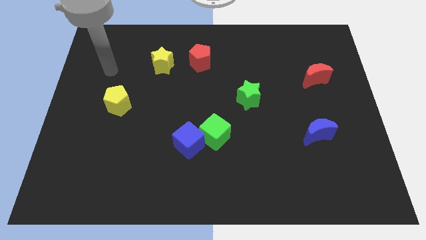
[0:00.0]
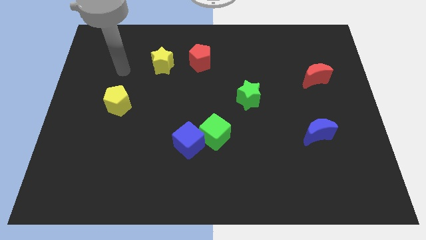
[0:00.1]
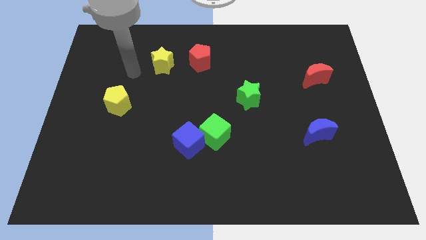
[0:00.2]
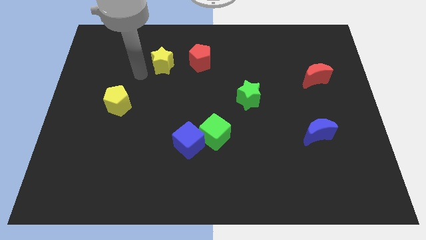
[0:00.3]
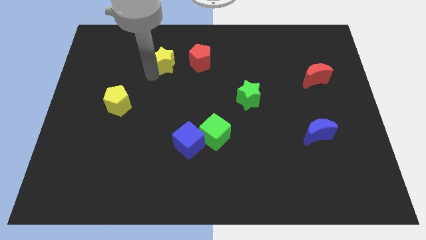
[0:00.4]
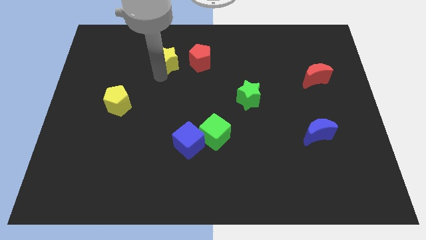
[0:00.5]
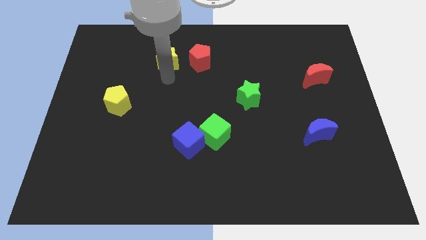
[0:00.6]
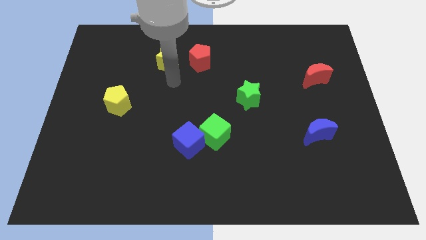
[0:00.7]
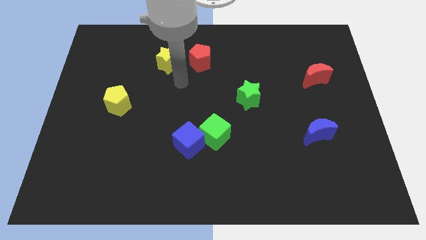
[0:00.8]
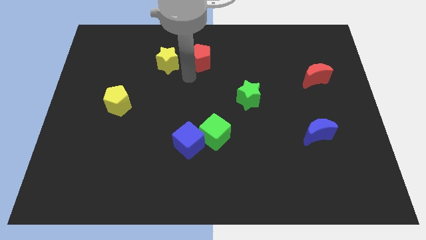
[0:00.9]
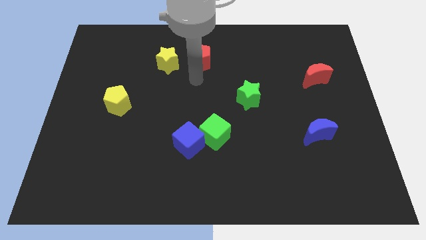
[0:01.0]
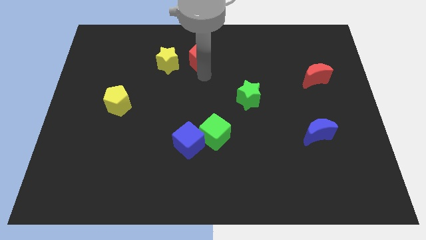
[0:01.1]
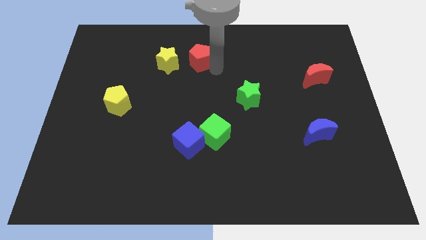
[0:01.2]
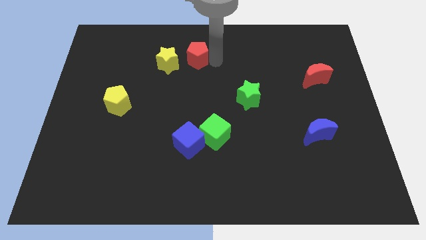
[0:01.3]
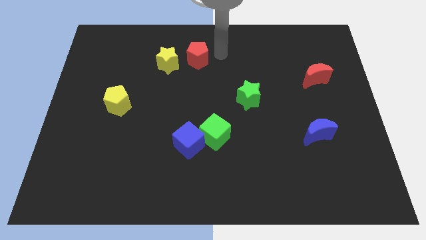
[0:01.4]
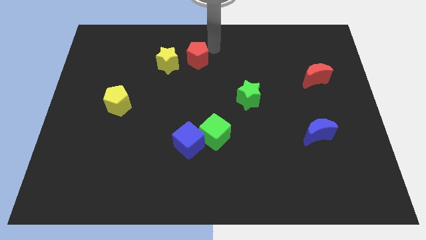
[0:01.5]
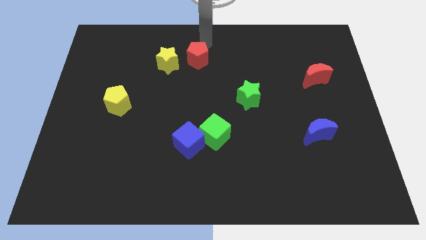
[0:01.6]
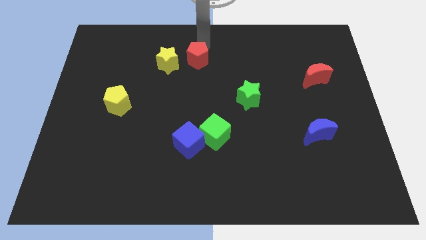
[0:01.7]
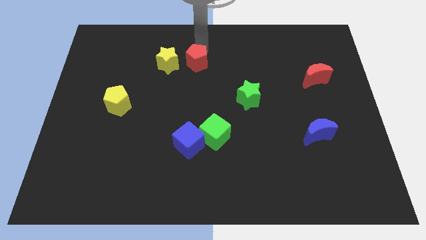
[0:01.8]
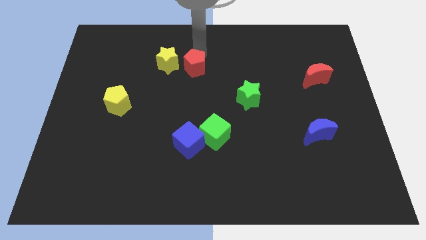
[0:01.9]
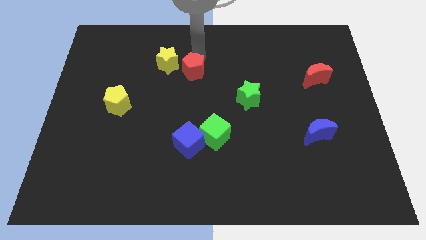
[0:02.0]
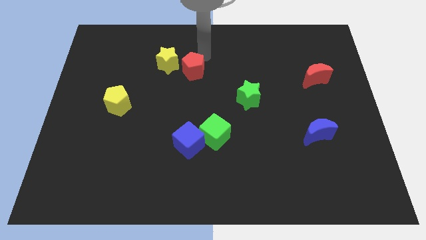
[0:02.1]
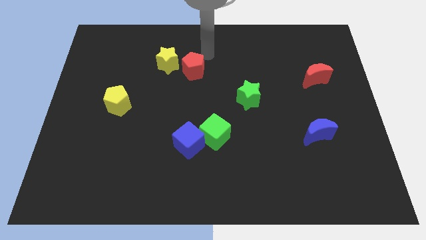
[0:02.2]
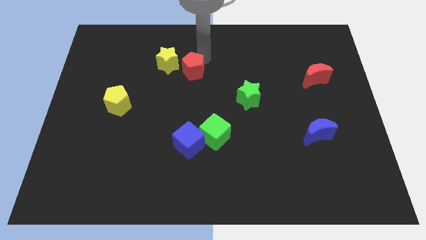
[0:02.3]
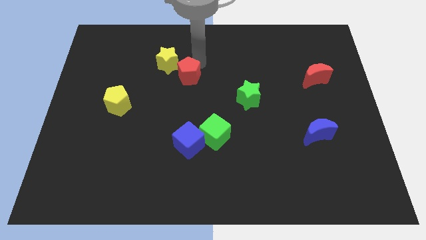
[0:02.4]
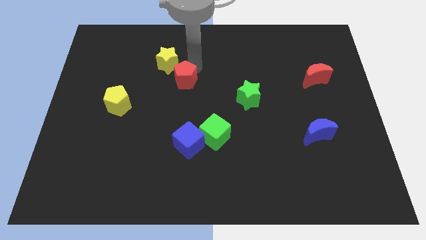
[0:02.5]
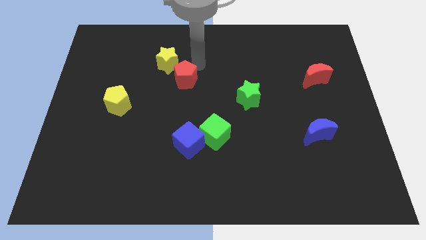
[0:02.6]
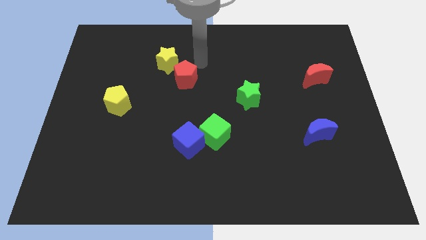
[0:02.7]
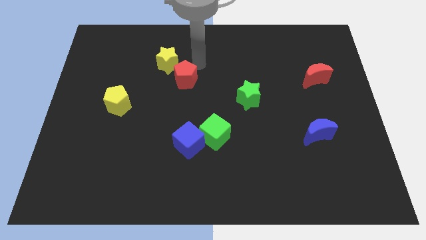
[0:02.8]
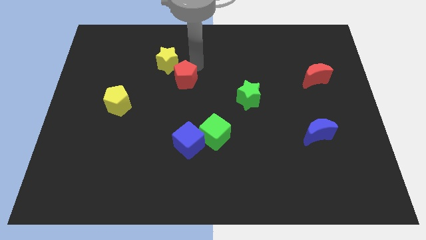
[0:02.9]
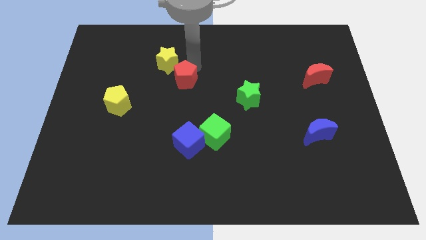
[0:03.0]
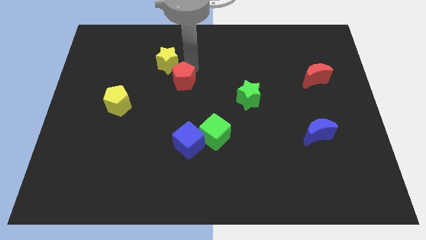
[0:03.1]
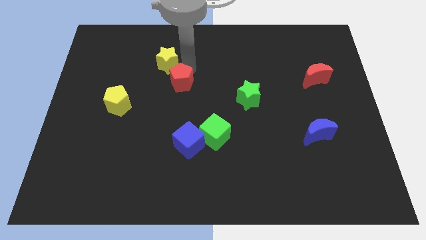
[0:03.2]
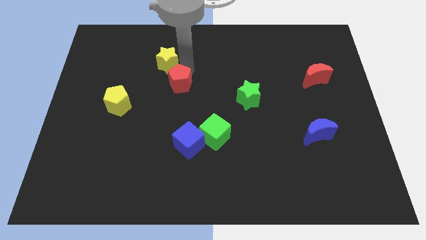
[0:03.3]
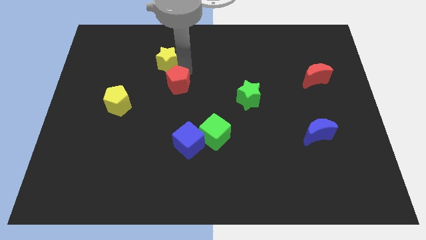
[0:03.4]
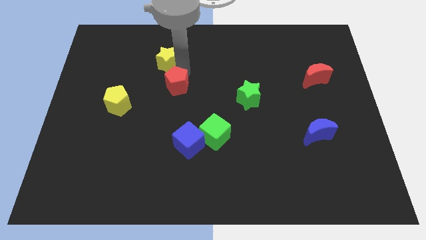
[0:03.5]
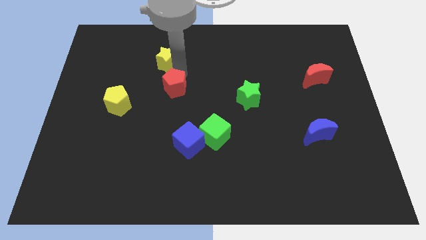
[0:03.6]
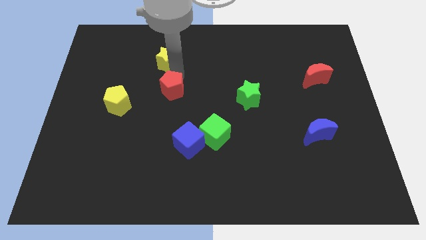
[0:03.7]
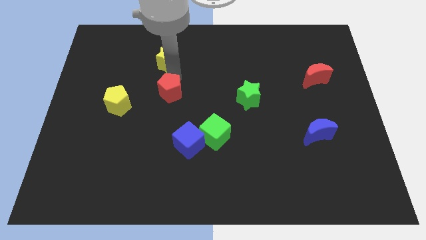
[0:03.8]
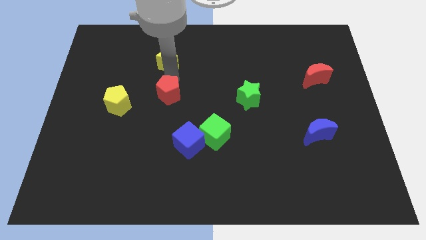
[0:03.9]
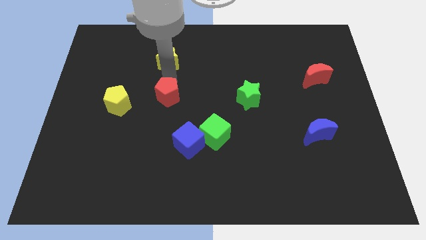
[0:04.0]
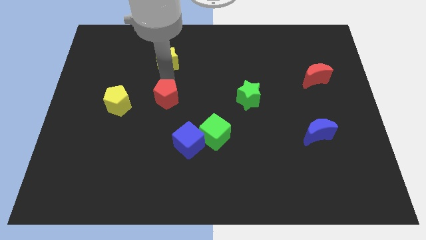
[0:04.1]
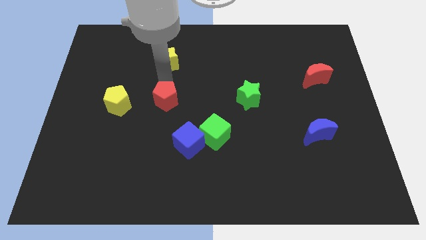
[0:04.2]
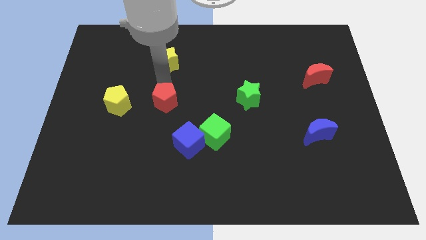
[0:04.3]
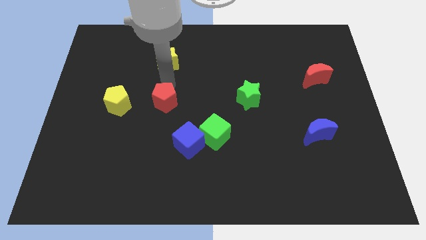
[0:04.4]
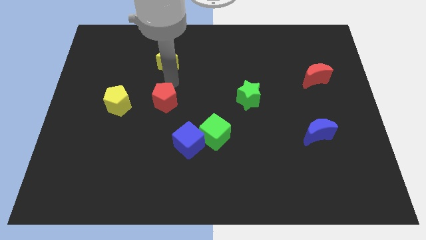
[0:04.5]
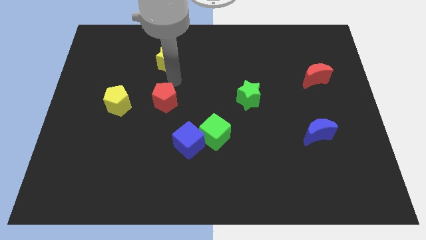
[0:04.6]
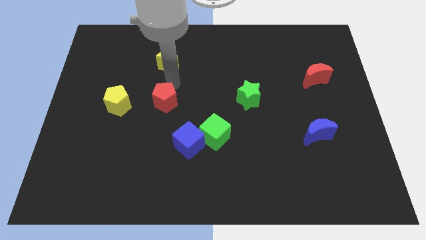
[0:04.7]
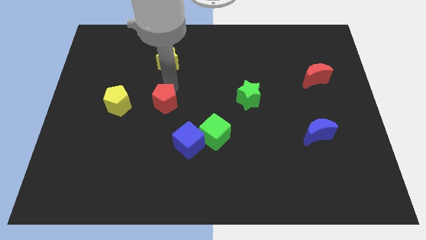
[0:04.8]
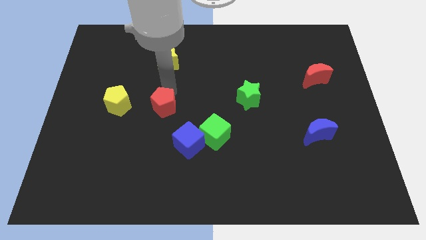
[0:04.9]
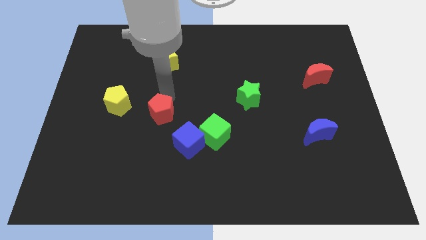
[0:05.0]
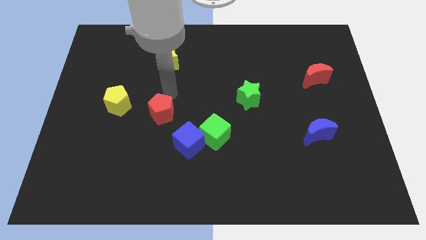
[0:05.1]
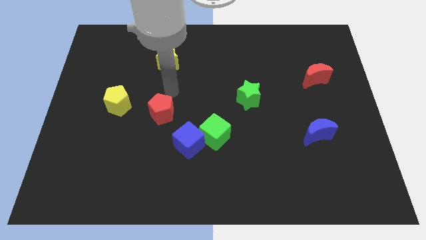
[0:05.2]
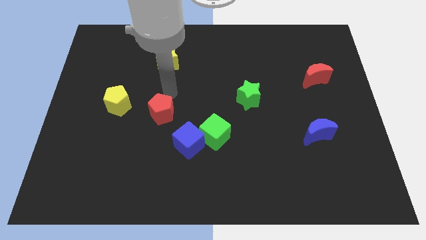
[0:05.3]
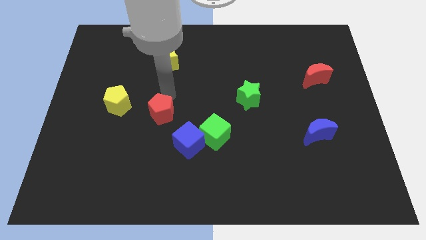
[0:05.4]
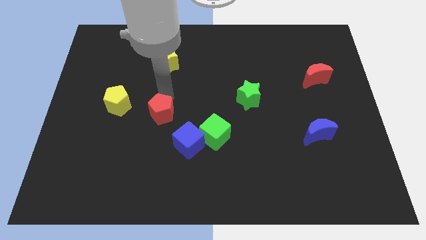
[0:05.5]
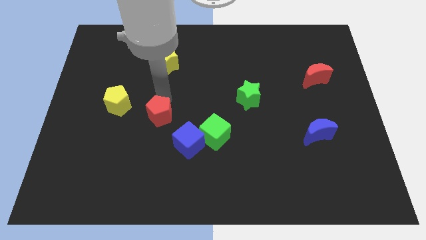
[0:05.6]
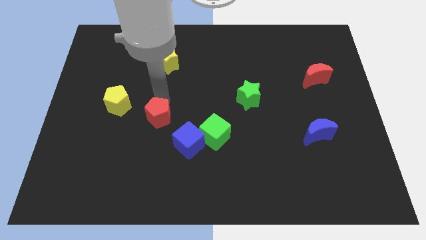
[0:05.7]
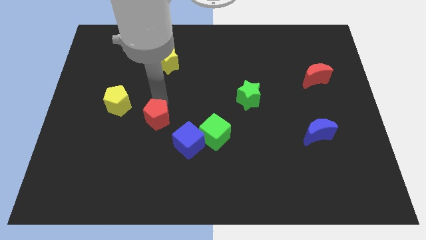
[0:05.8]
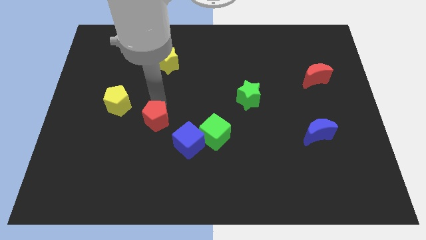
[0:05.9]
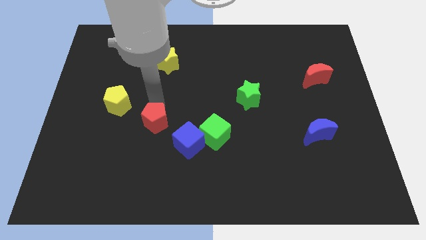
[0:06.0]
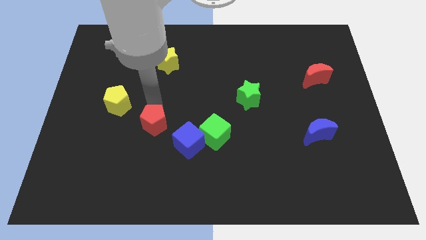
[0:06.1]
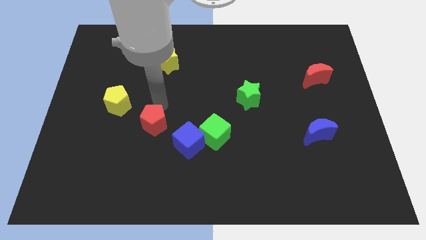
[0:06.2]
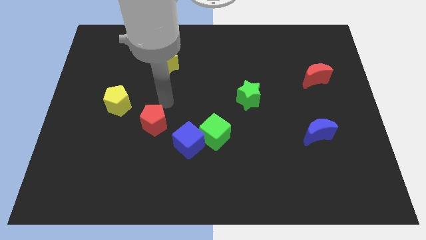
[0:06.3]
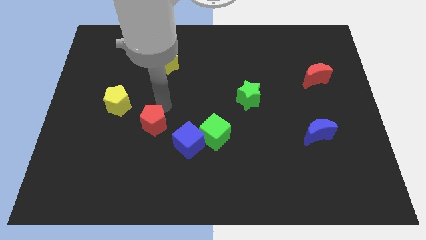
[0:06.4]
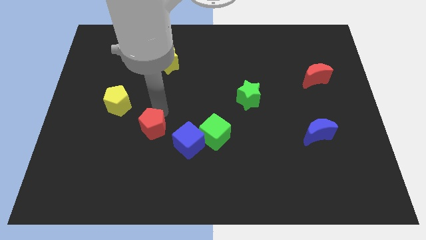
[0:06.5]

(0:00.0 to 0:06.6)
put the red pentagon to the left side of the blue cube
